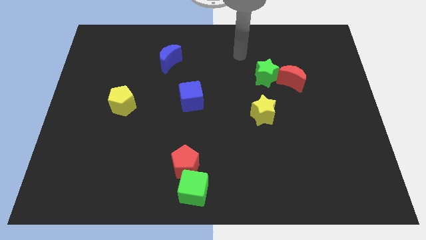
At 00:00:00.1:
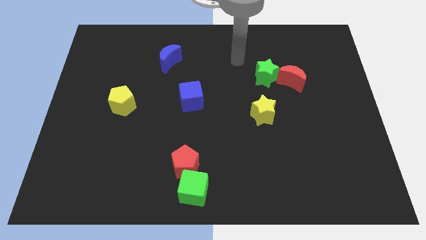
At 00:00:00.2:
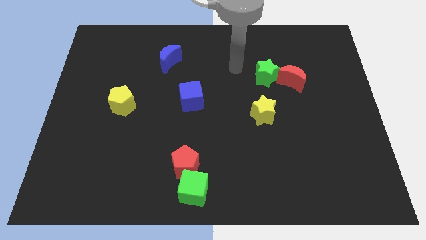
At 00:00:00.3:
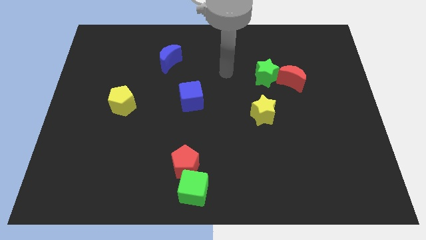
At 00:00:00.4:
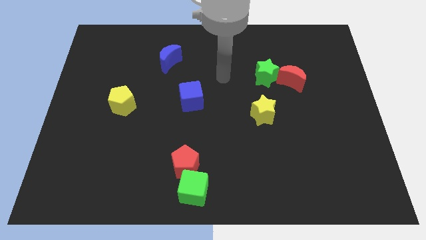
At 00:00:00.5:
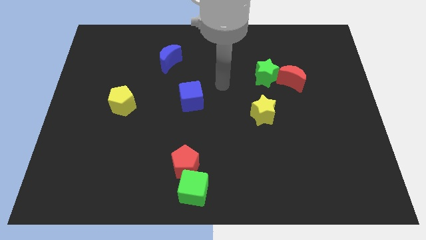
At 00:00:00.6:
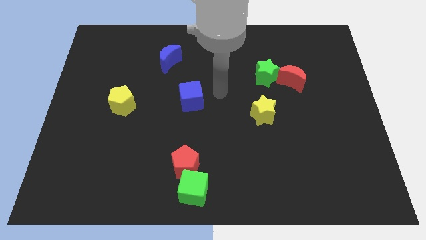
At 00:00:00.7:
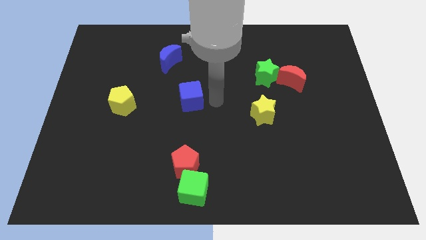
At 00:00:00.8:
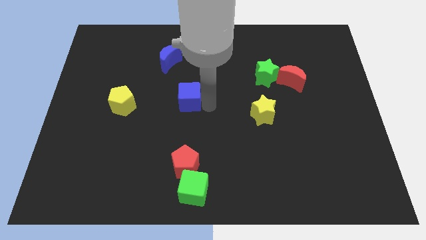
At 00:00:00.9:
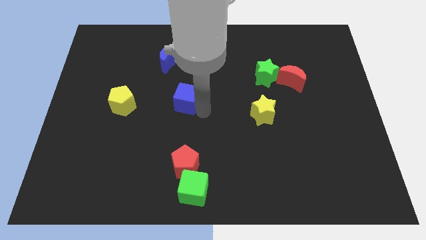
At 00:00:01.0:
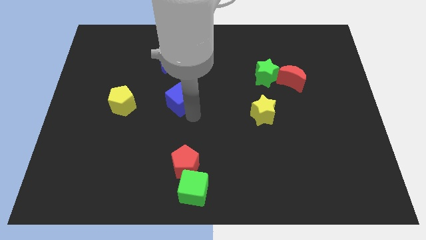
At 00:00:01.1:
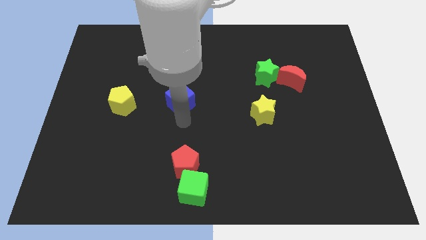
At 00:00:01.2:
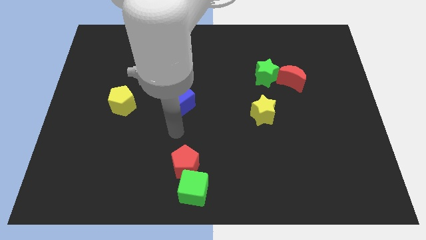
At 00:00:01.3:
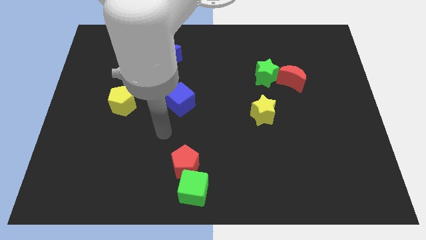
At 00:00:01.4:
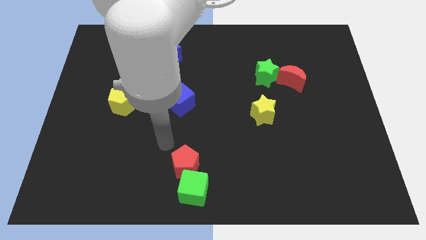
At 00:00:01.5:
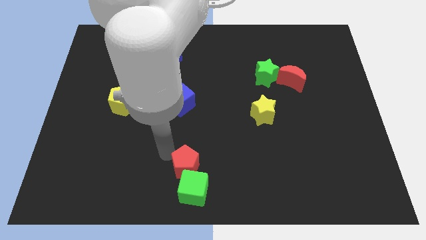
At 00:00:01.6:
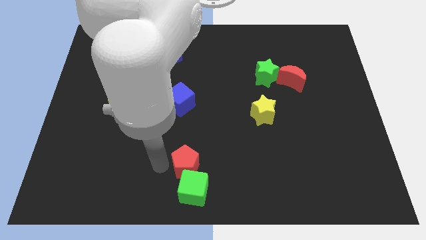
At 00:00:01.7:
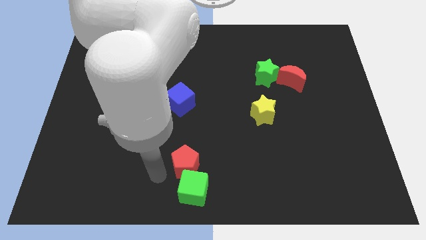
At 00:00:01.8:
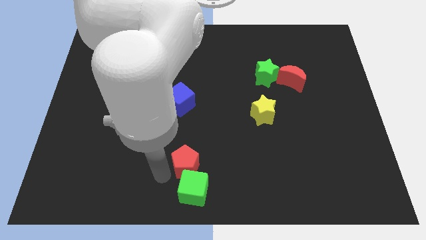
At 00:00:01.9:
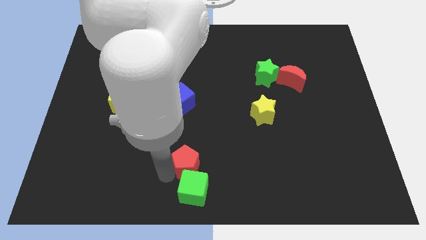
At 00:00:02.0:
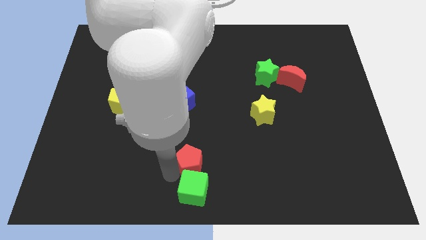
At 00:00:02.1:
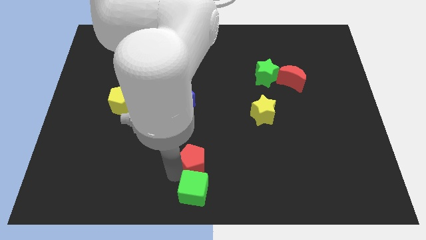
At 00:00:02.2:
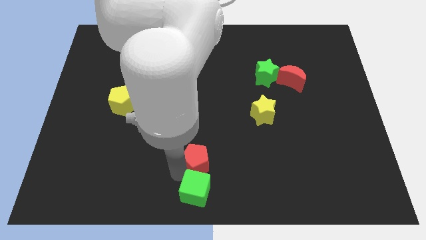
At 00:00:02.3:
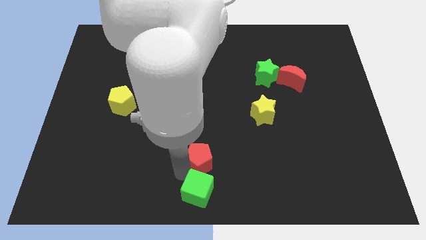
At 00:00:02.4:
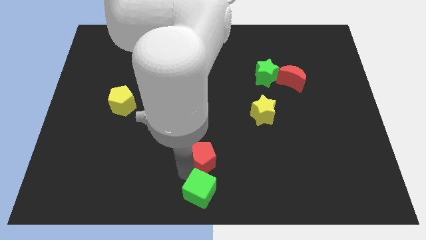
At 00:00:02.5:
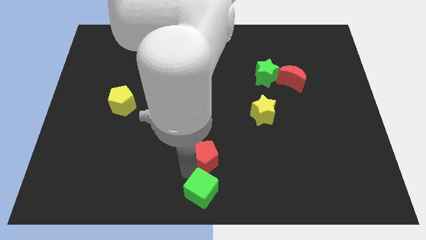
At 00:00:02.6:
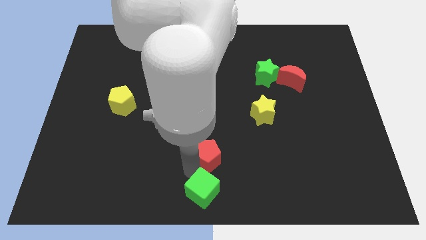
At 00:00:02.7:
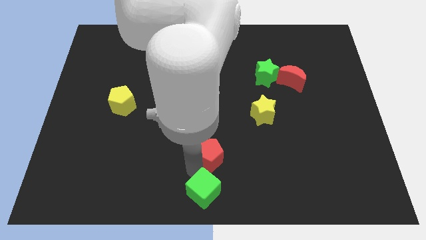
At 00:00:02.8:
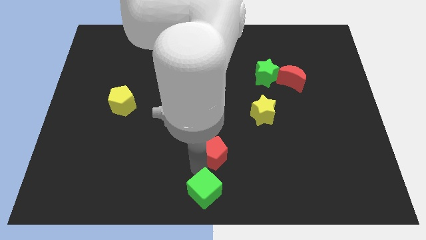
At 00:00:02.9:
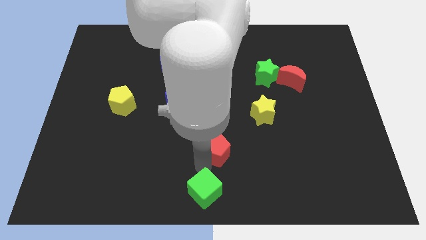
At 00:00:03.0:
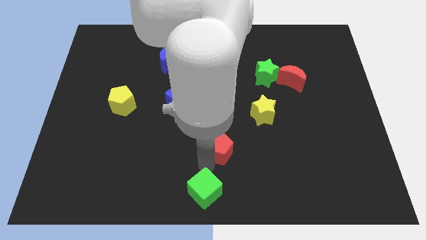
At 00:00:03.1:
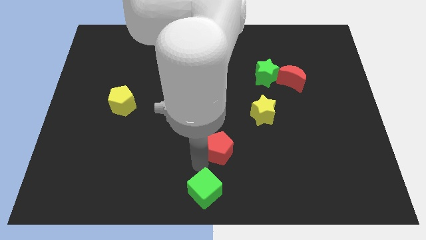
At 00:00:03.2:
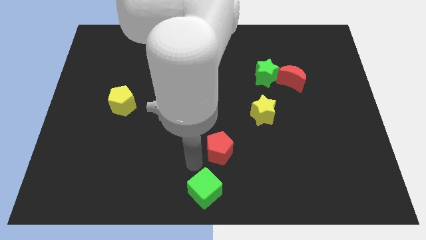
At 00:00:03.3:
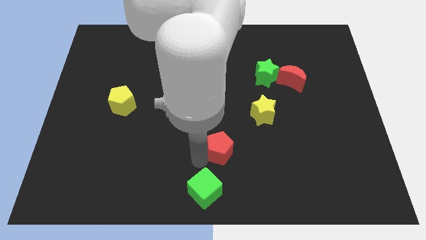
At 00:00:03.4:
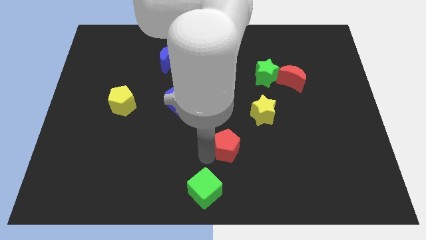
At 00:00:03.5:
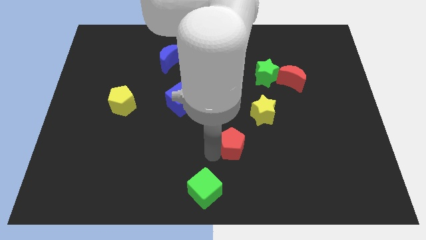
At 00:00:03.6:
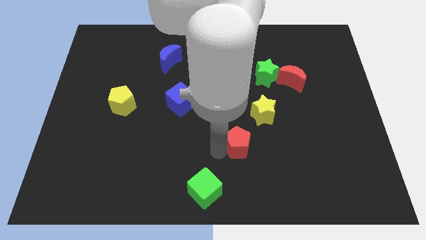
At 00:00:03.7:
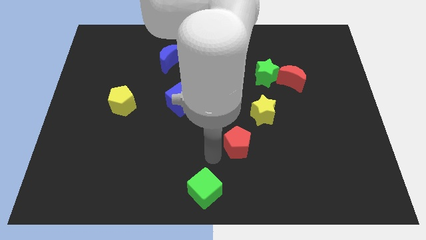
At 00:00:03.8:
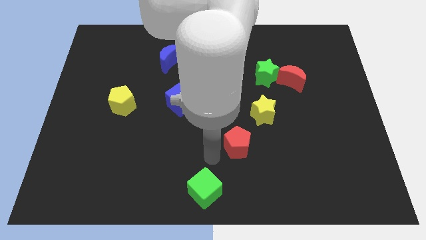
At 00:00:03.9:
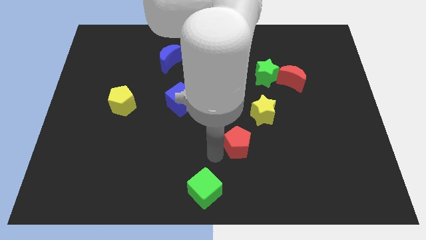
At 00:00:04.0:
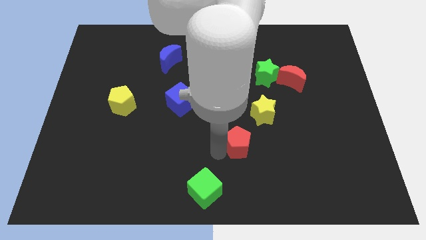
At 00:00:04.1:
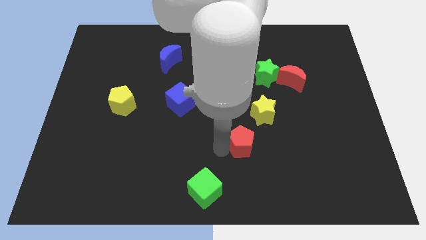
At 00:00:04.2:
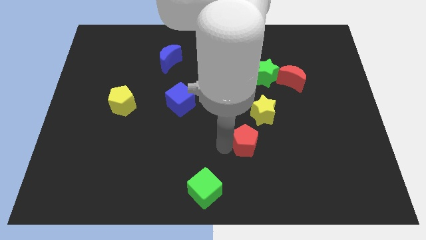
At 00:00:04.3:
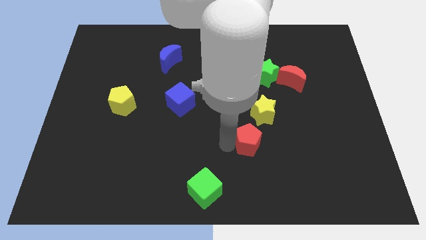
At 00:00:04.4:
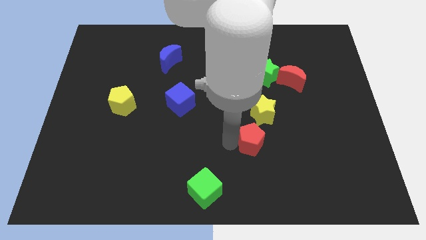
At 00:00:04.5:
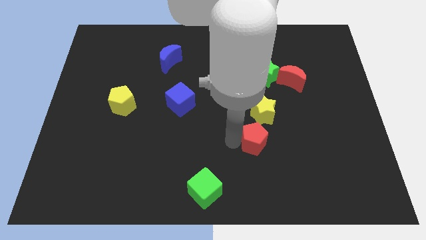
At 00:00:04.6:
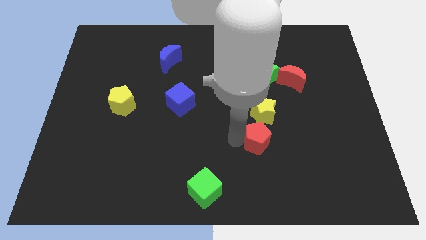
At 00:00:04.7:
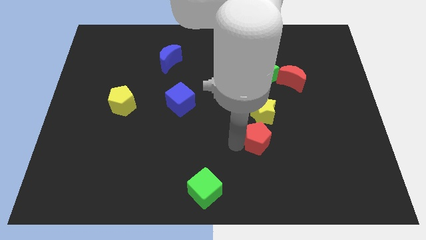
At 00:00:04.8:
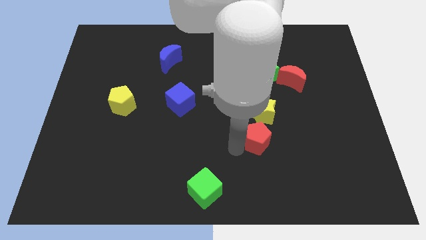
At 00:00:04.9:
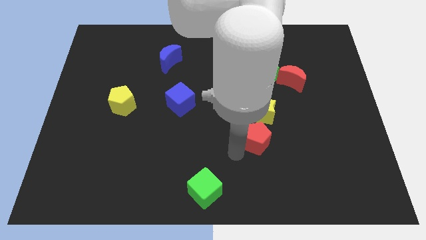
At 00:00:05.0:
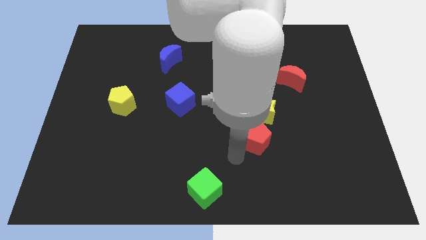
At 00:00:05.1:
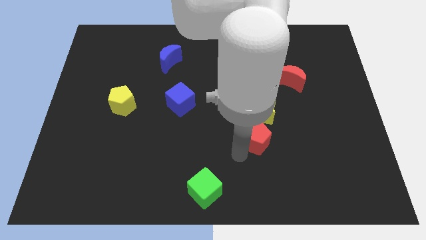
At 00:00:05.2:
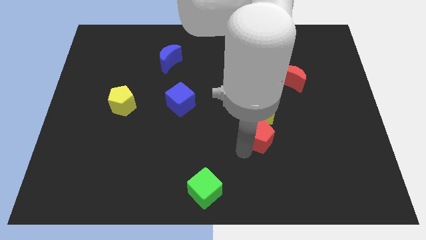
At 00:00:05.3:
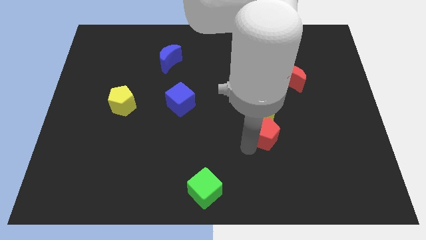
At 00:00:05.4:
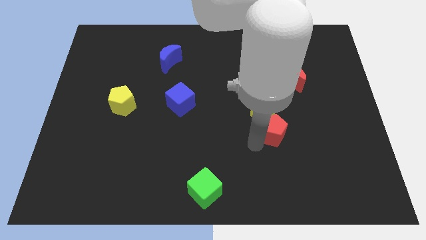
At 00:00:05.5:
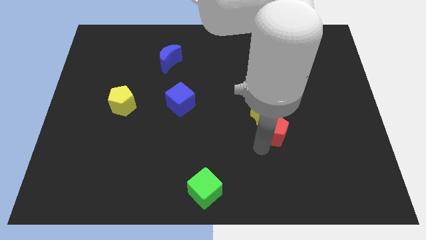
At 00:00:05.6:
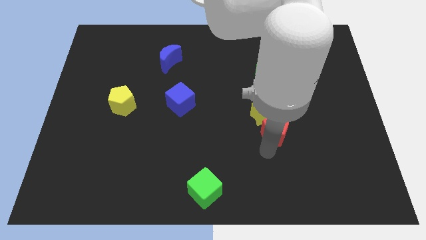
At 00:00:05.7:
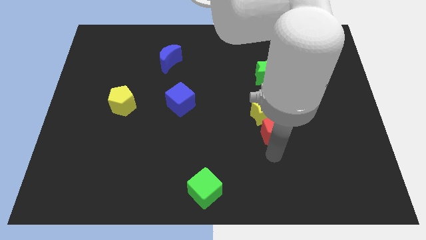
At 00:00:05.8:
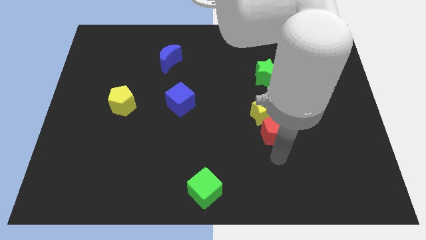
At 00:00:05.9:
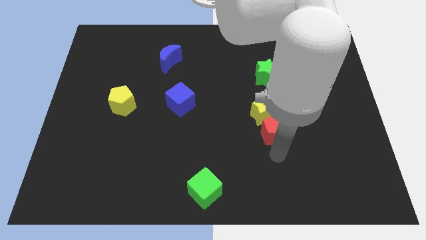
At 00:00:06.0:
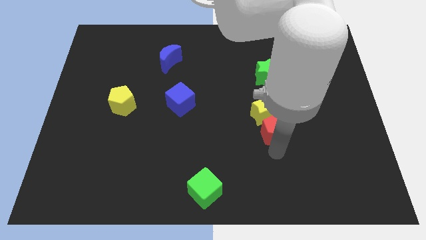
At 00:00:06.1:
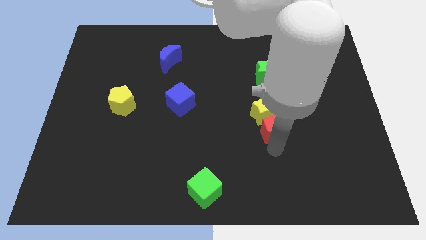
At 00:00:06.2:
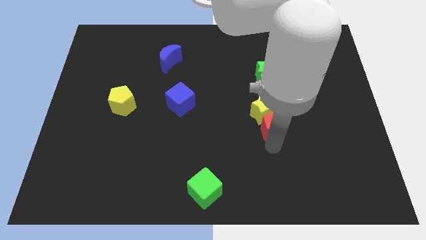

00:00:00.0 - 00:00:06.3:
slide the red pentagon to the bottom side of the green star
